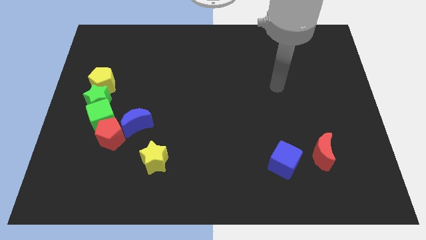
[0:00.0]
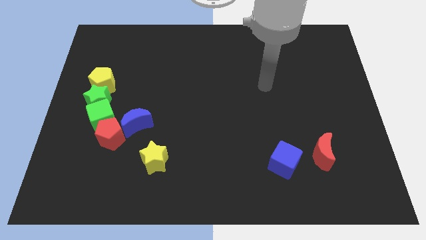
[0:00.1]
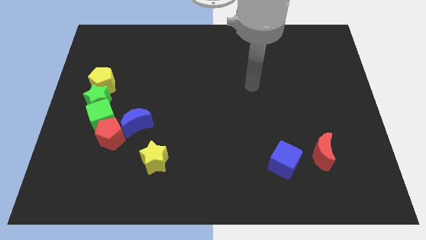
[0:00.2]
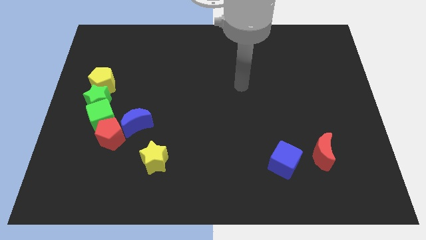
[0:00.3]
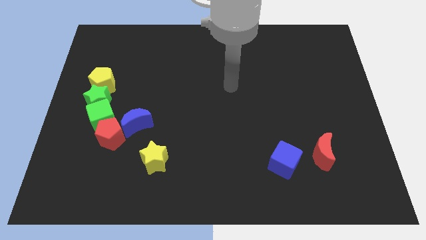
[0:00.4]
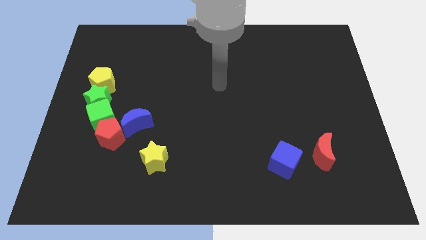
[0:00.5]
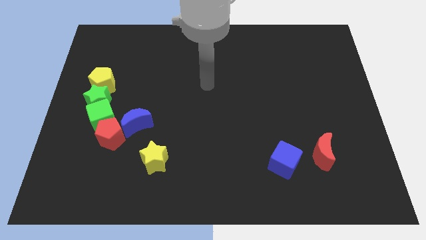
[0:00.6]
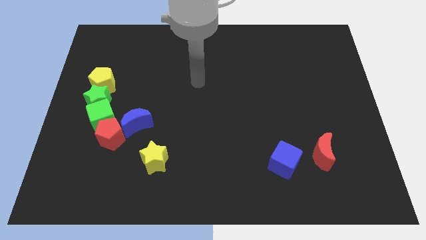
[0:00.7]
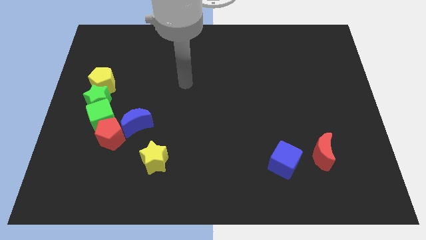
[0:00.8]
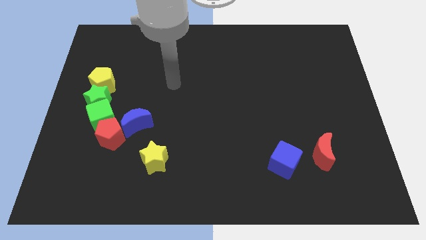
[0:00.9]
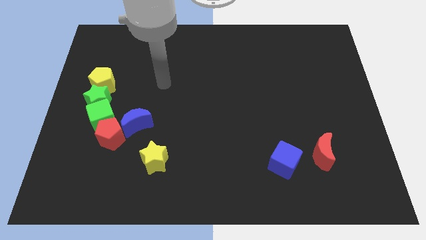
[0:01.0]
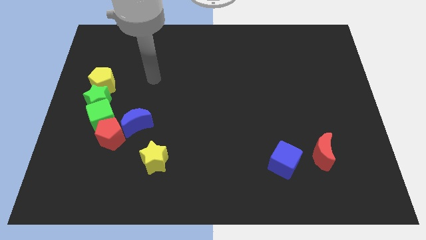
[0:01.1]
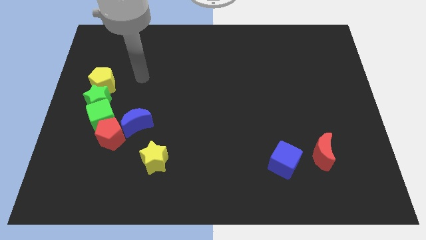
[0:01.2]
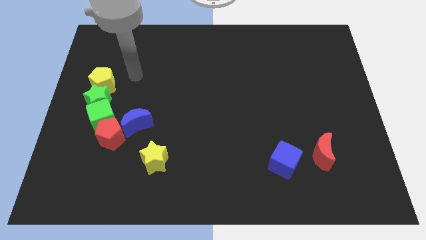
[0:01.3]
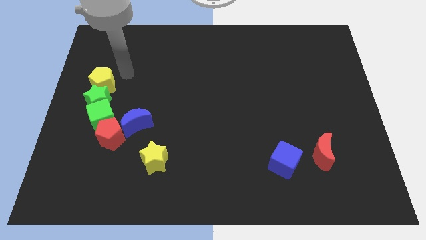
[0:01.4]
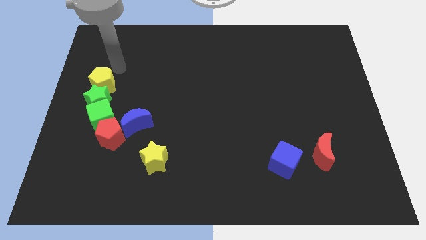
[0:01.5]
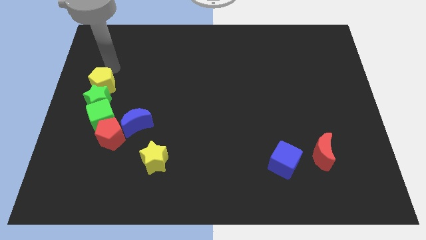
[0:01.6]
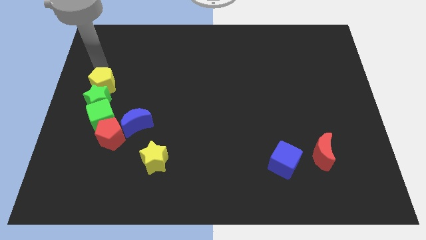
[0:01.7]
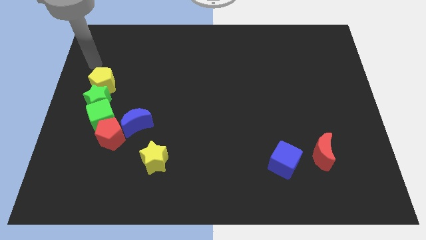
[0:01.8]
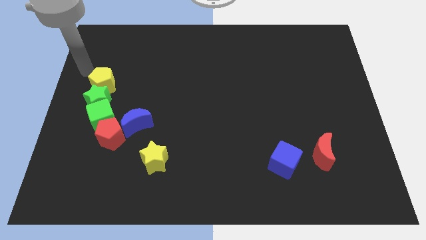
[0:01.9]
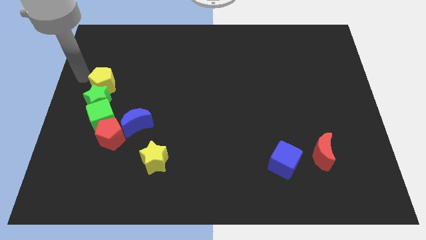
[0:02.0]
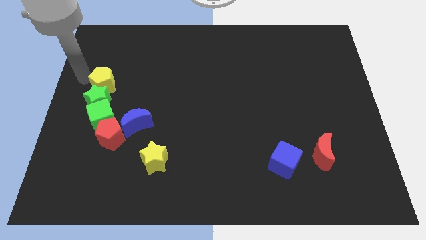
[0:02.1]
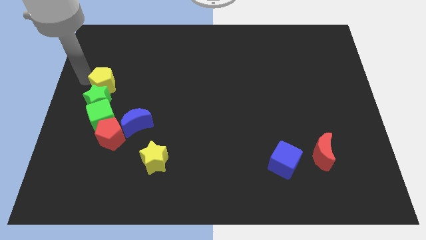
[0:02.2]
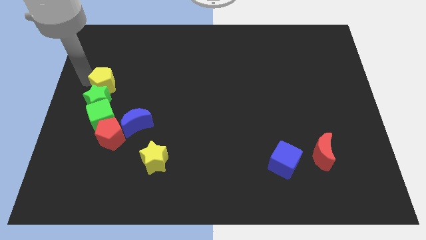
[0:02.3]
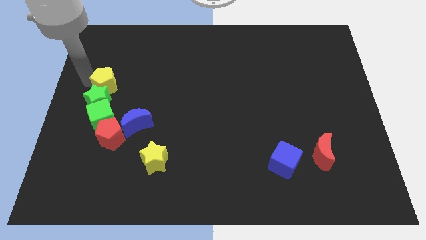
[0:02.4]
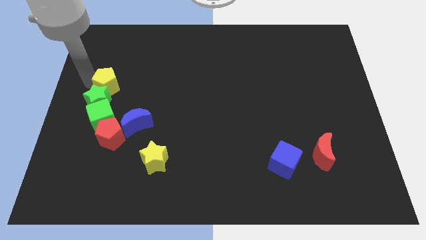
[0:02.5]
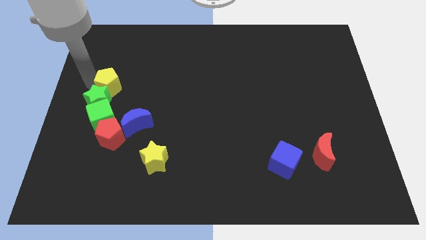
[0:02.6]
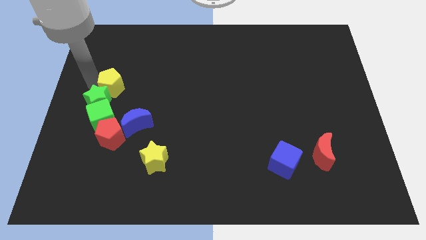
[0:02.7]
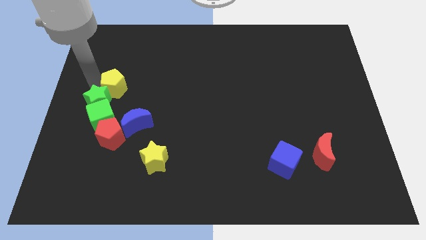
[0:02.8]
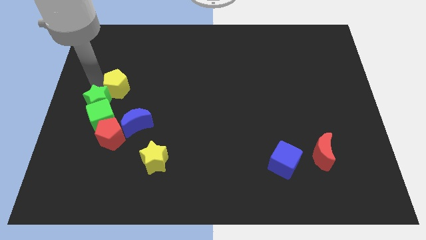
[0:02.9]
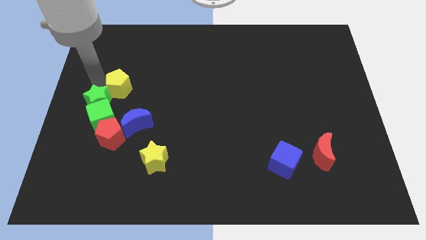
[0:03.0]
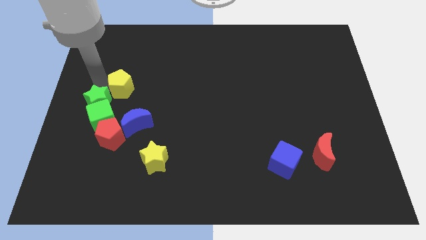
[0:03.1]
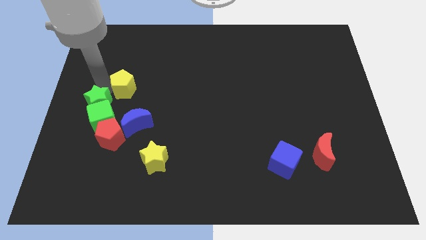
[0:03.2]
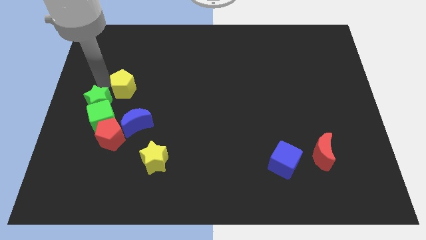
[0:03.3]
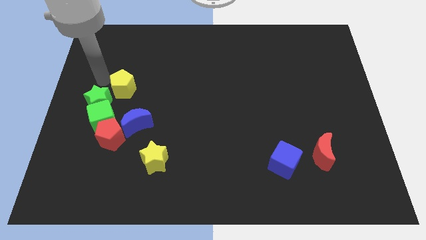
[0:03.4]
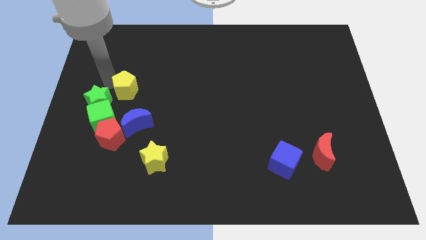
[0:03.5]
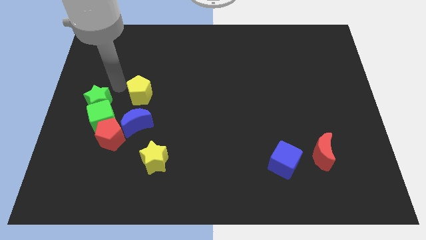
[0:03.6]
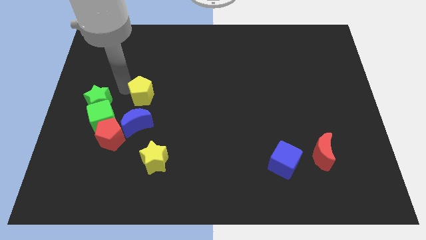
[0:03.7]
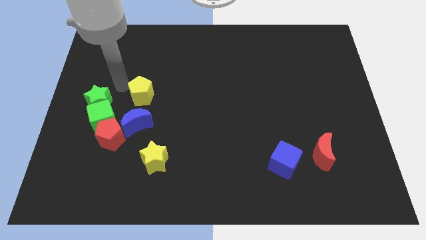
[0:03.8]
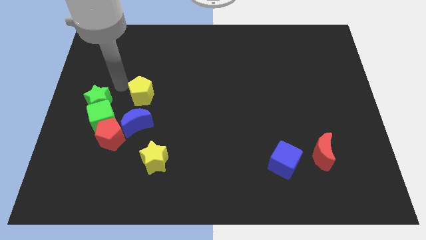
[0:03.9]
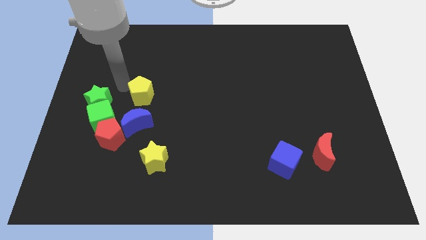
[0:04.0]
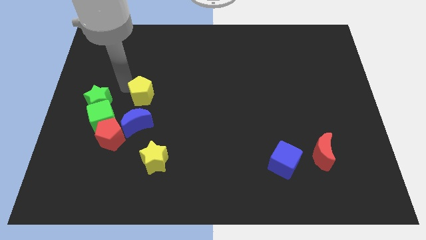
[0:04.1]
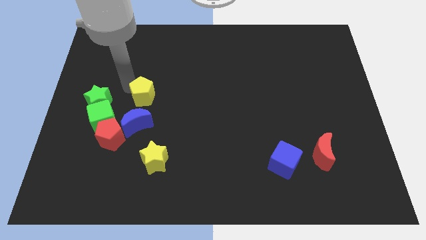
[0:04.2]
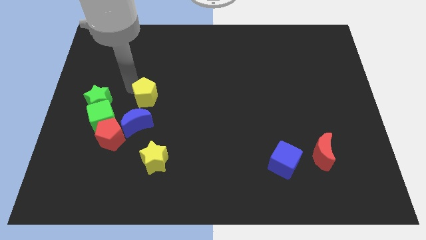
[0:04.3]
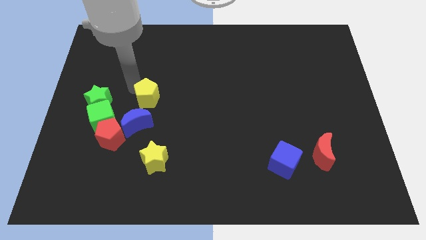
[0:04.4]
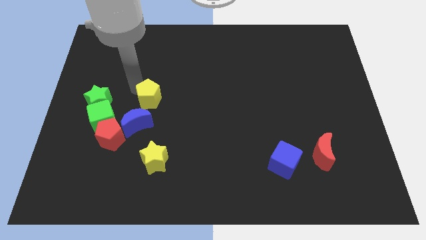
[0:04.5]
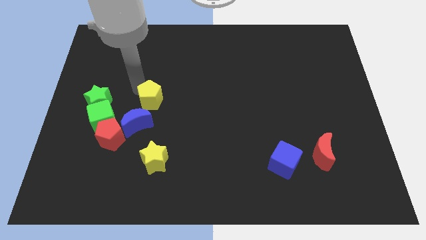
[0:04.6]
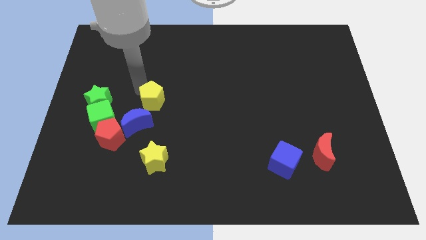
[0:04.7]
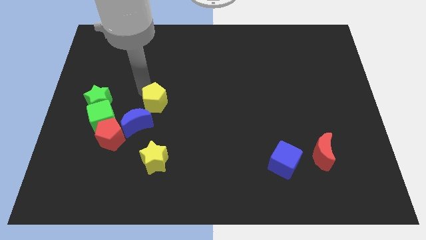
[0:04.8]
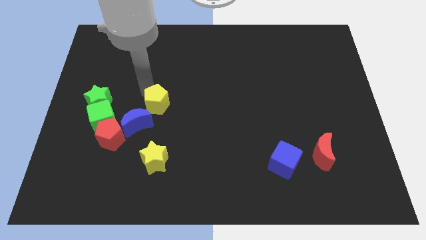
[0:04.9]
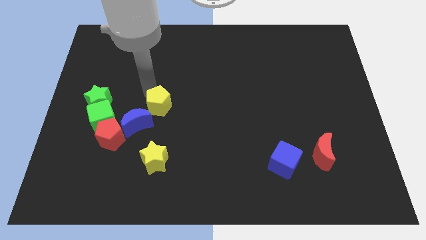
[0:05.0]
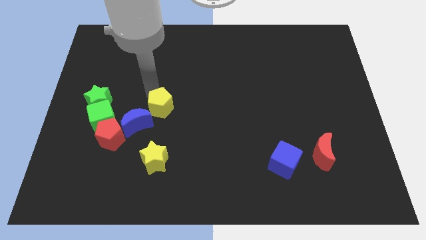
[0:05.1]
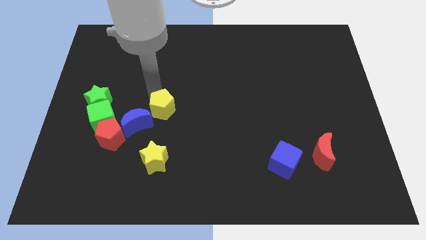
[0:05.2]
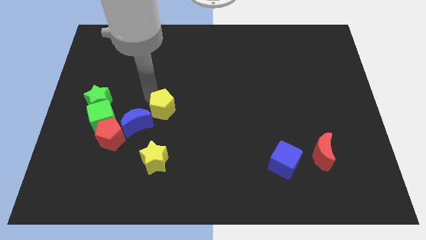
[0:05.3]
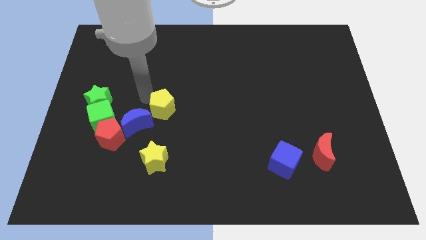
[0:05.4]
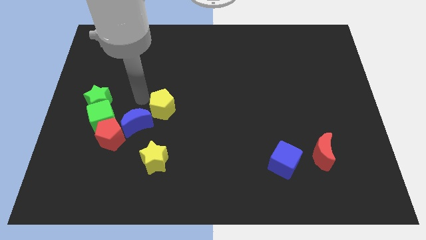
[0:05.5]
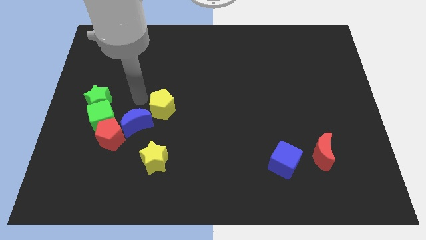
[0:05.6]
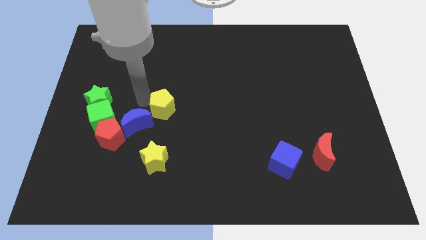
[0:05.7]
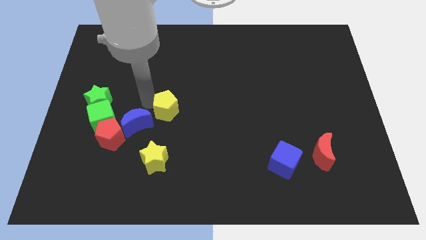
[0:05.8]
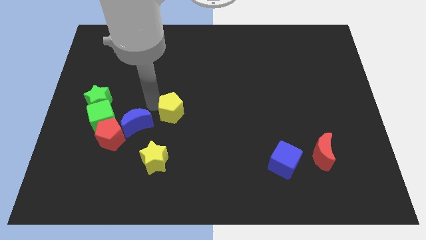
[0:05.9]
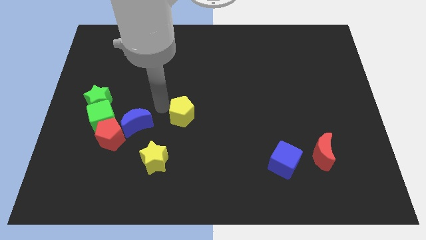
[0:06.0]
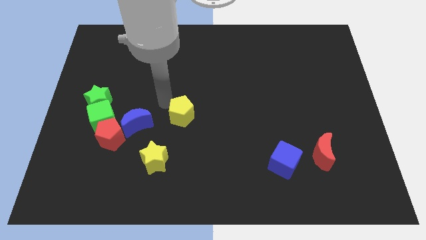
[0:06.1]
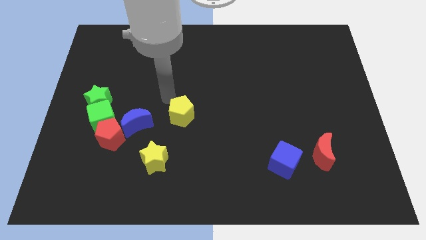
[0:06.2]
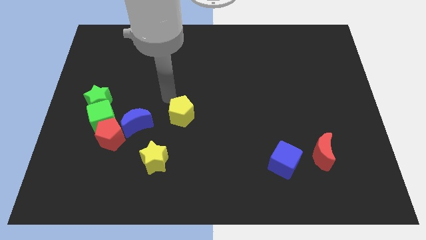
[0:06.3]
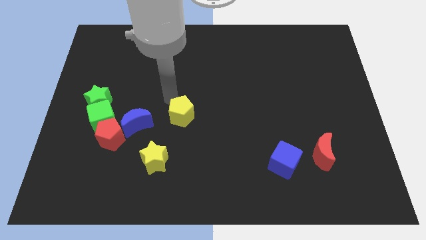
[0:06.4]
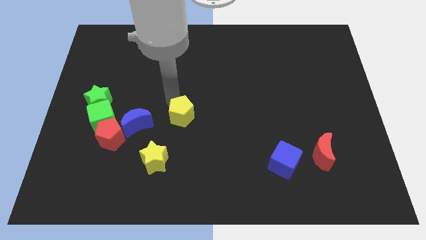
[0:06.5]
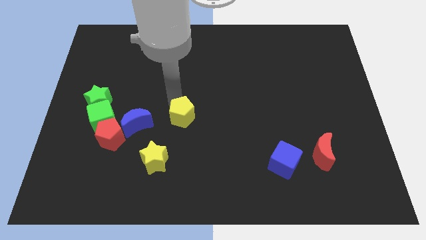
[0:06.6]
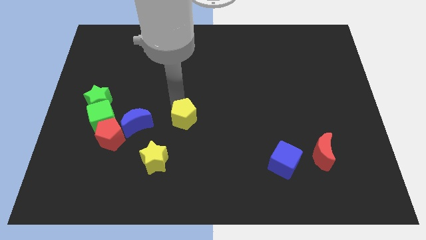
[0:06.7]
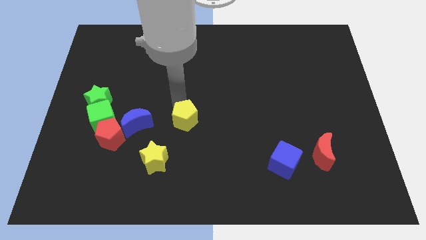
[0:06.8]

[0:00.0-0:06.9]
slide the yellow pentagon down and right diagonally

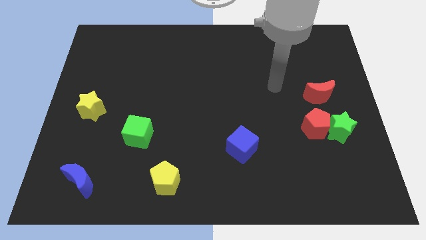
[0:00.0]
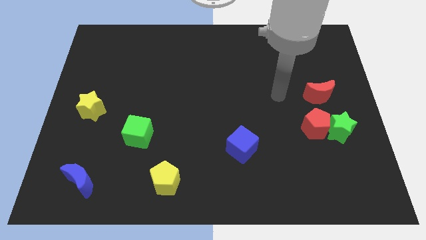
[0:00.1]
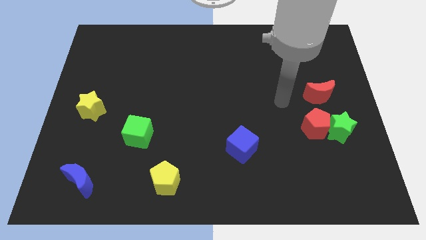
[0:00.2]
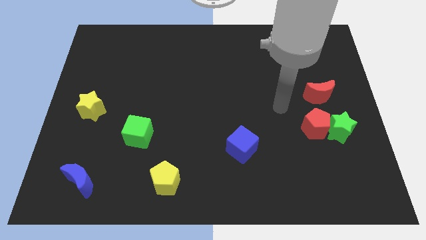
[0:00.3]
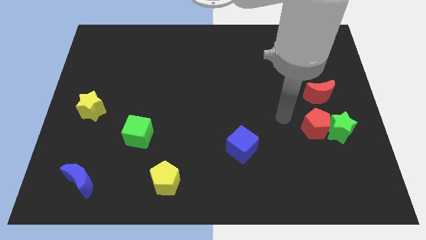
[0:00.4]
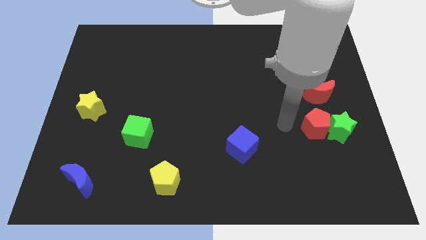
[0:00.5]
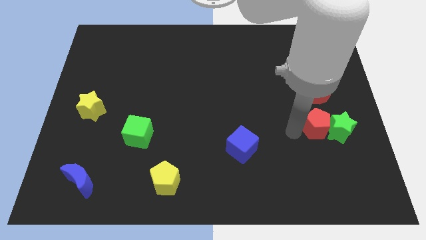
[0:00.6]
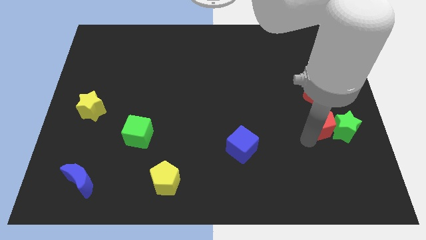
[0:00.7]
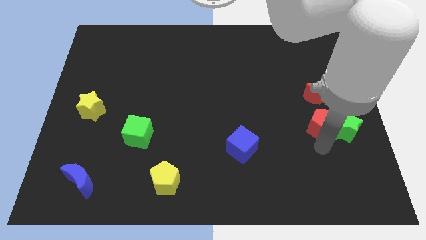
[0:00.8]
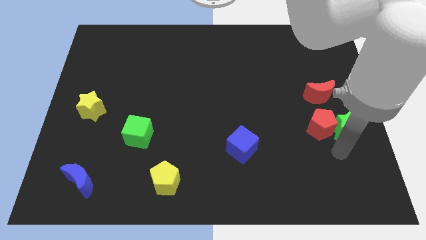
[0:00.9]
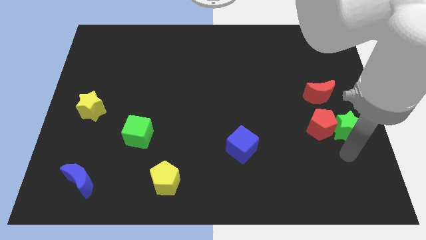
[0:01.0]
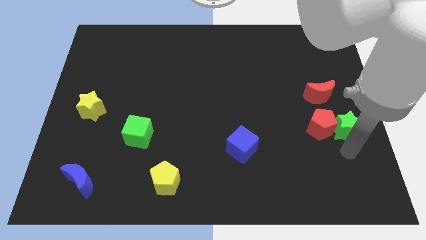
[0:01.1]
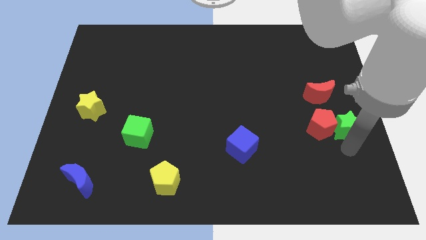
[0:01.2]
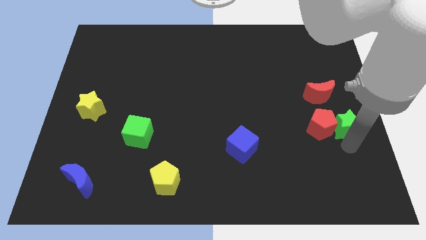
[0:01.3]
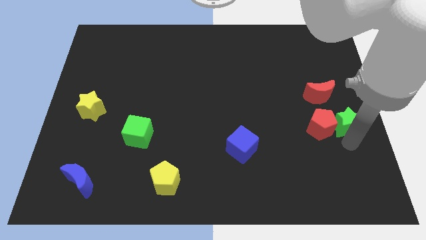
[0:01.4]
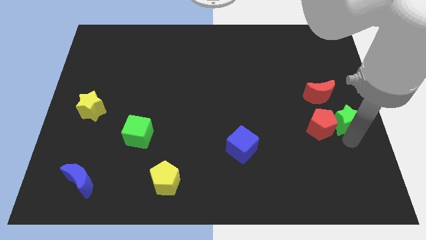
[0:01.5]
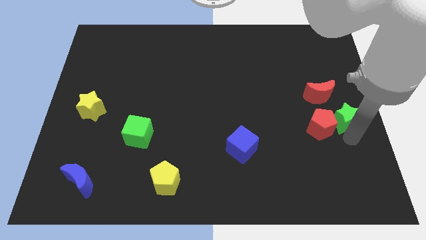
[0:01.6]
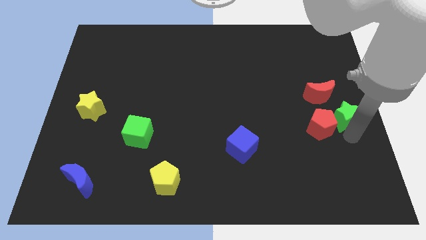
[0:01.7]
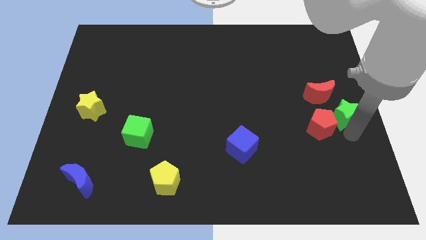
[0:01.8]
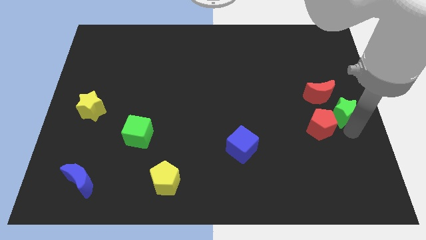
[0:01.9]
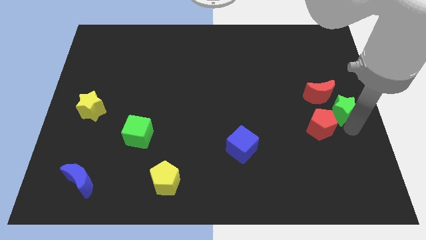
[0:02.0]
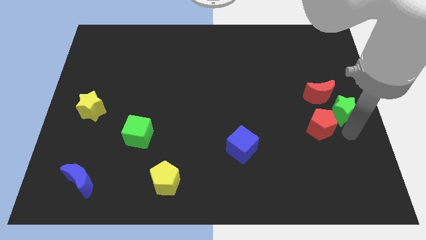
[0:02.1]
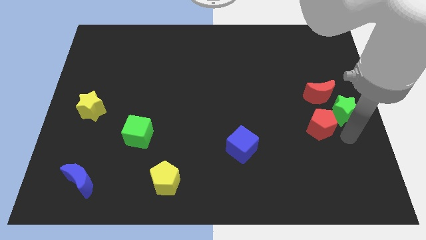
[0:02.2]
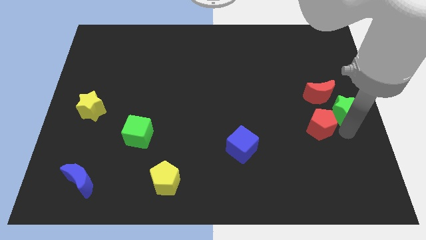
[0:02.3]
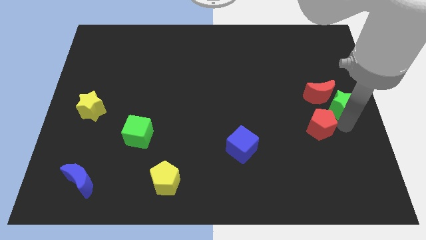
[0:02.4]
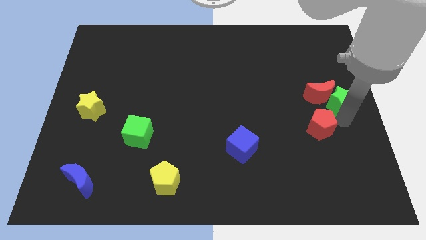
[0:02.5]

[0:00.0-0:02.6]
push the green star a bit up
